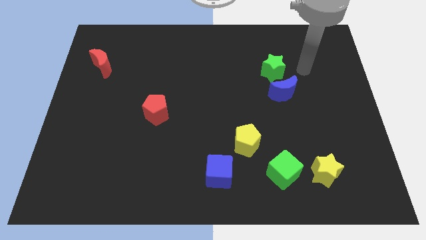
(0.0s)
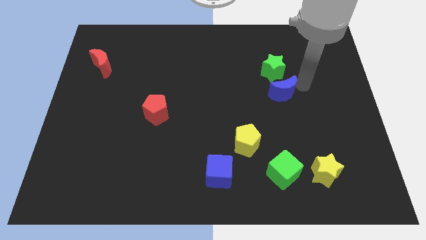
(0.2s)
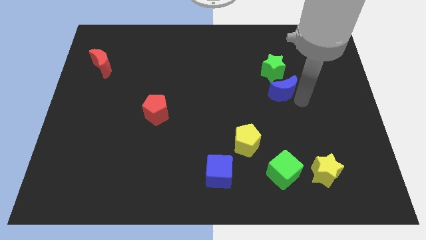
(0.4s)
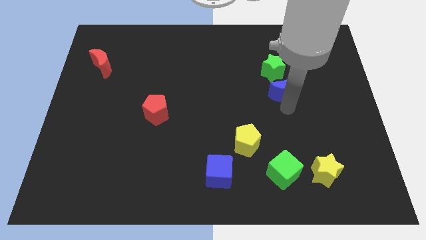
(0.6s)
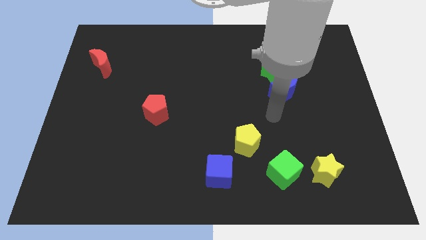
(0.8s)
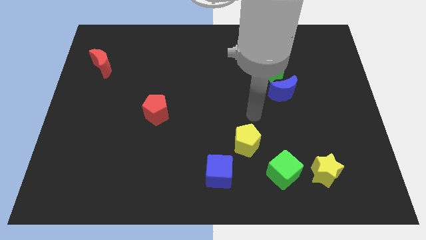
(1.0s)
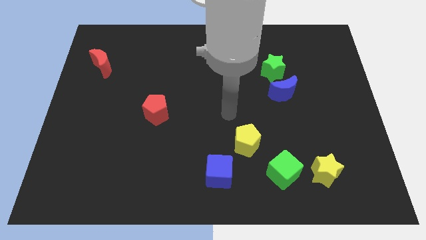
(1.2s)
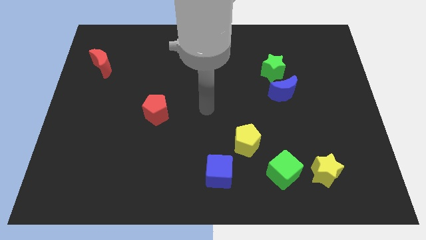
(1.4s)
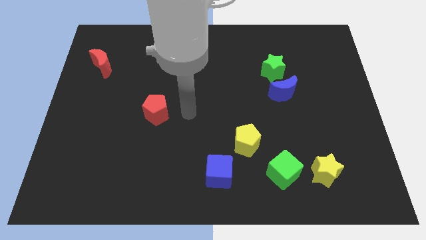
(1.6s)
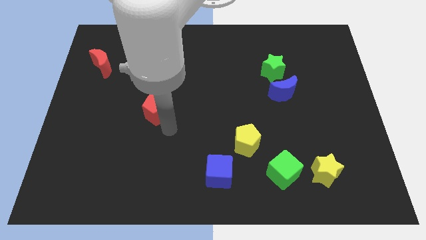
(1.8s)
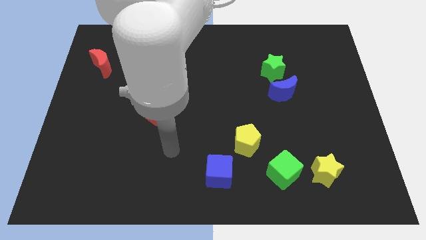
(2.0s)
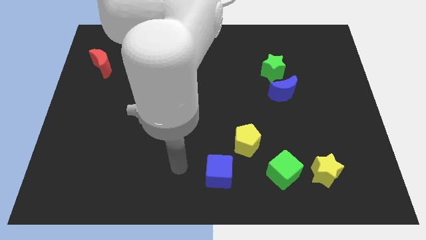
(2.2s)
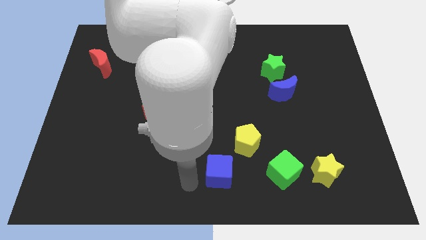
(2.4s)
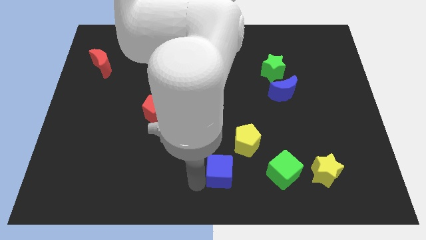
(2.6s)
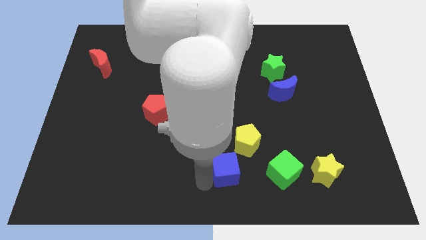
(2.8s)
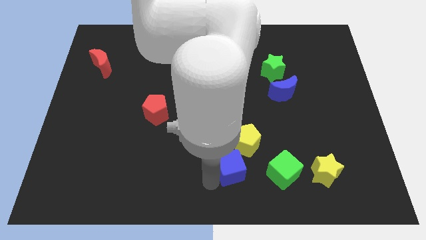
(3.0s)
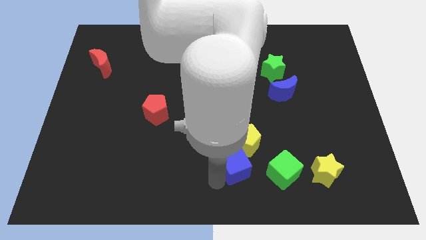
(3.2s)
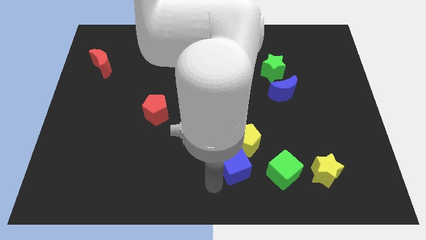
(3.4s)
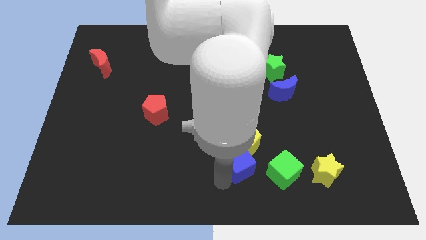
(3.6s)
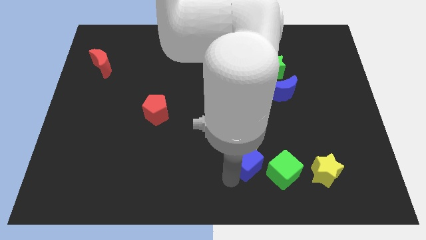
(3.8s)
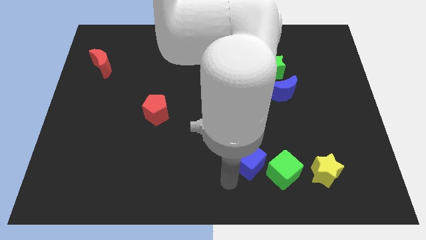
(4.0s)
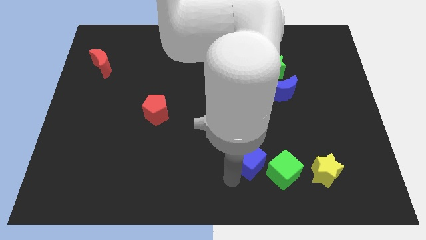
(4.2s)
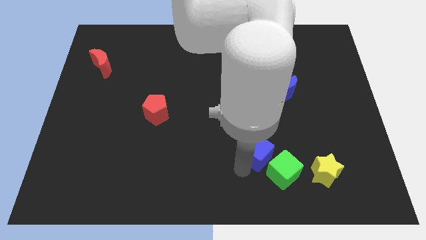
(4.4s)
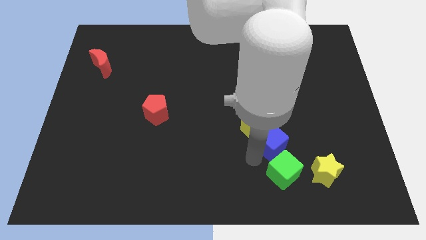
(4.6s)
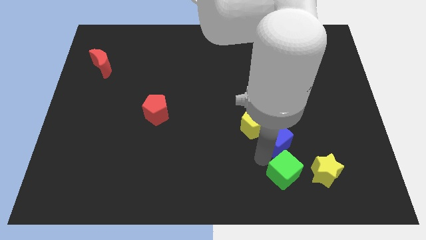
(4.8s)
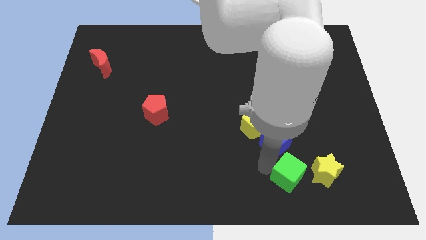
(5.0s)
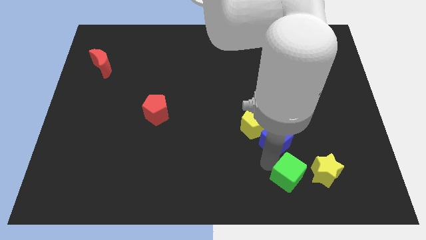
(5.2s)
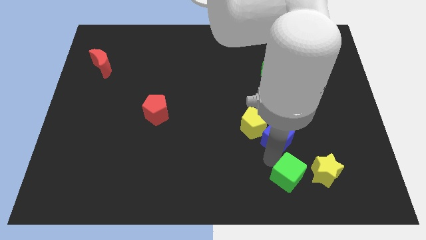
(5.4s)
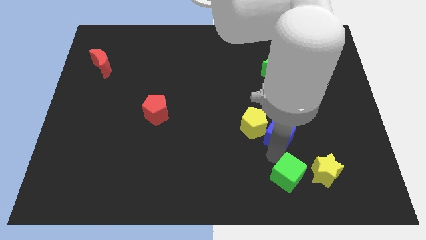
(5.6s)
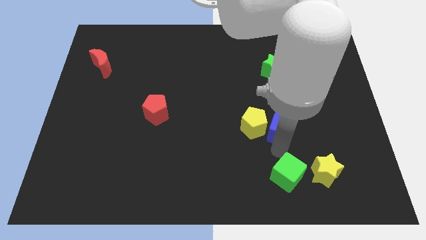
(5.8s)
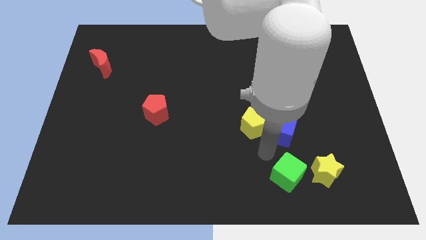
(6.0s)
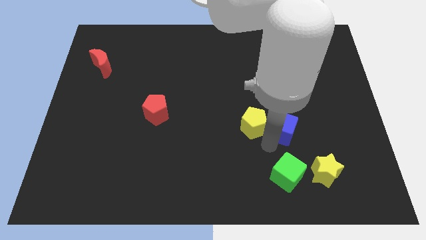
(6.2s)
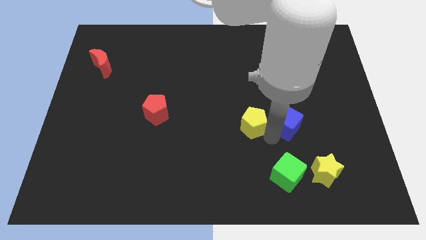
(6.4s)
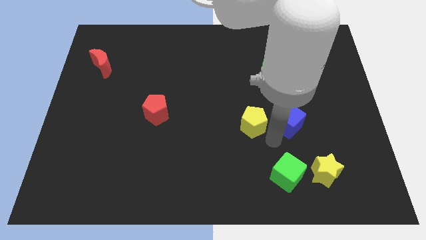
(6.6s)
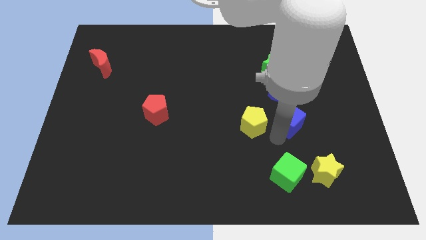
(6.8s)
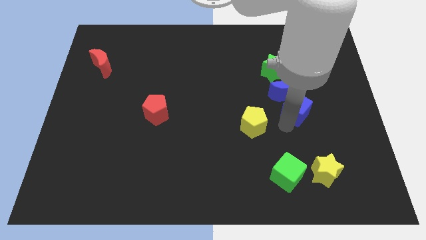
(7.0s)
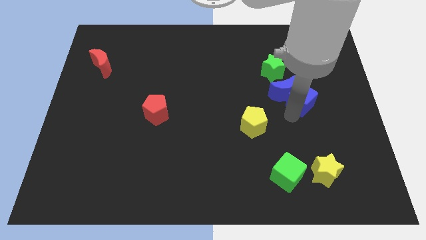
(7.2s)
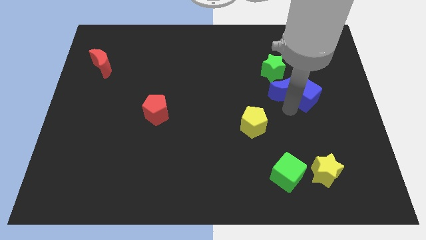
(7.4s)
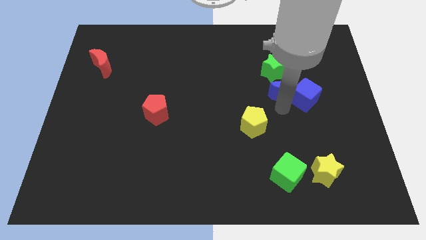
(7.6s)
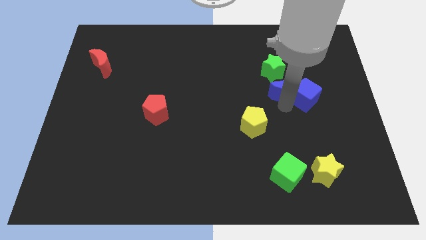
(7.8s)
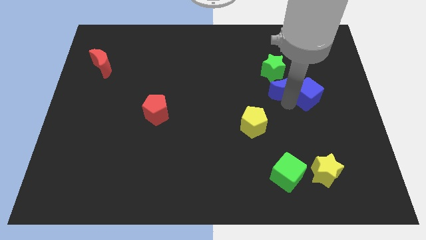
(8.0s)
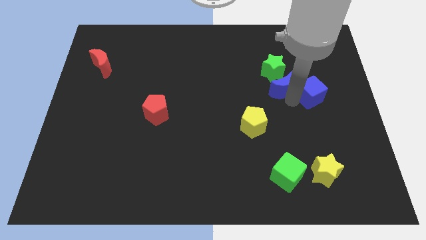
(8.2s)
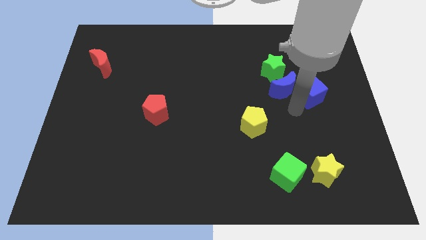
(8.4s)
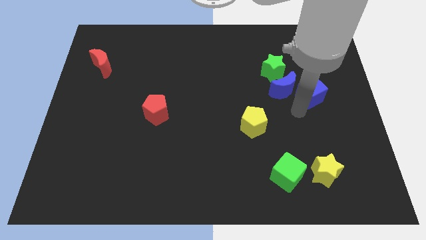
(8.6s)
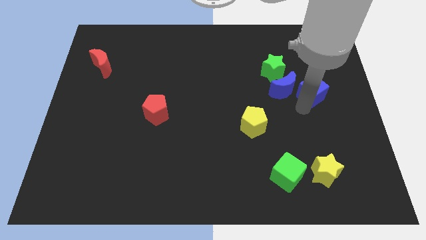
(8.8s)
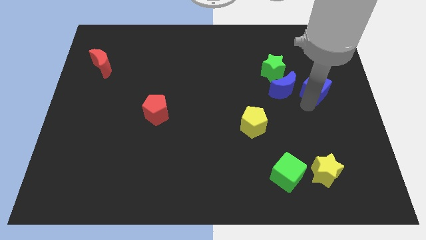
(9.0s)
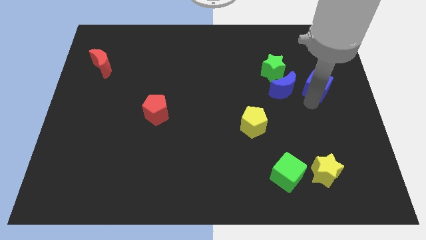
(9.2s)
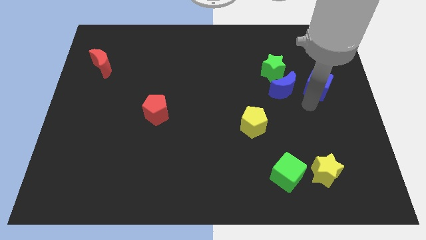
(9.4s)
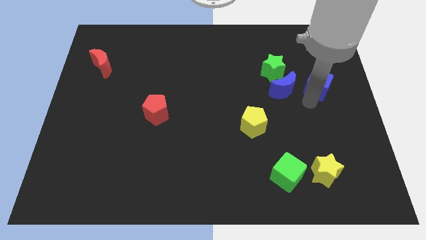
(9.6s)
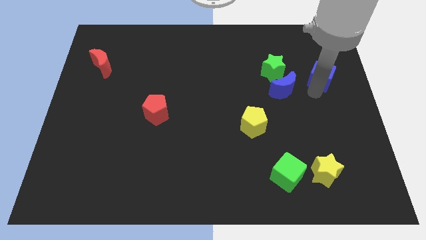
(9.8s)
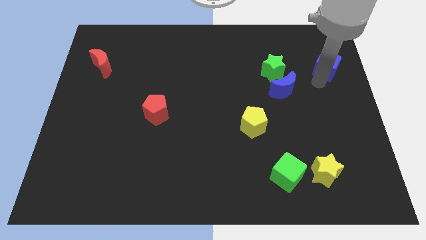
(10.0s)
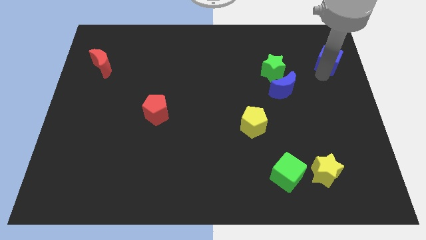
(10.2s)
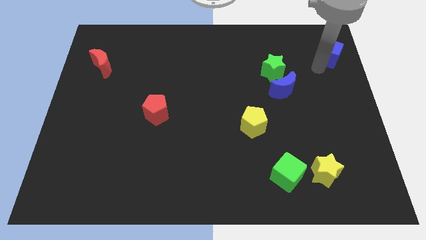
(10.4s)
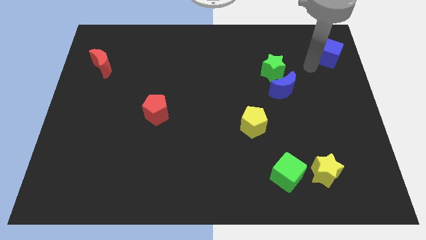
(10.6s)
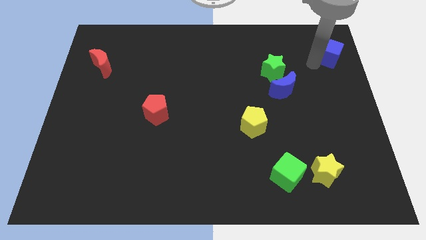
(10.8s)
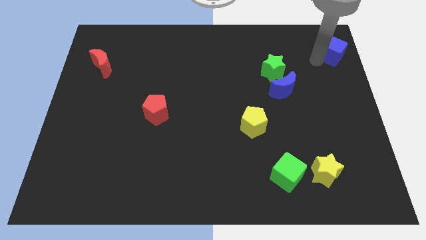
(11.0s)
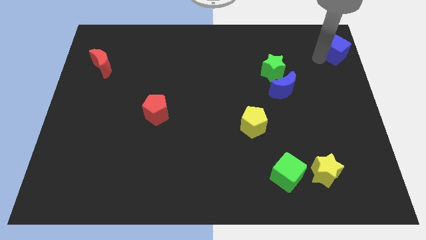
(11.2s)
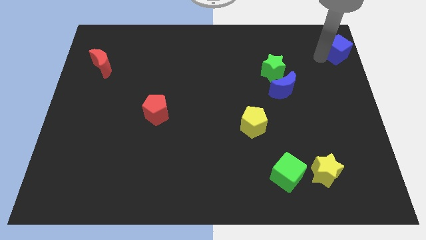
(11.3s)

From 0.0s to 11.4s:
slide the blue cube to the top right corner

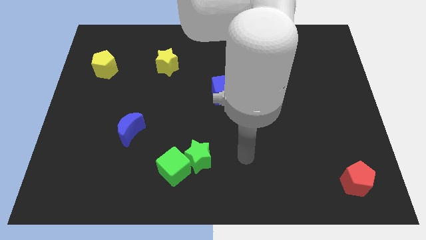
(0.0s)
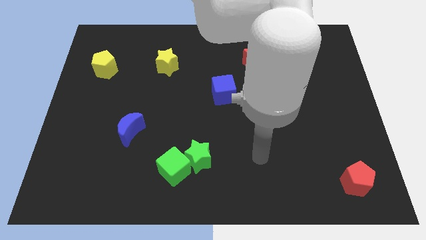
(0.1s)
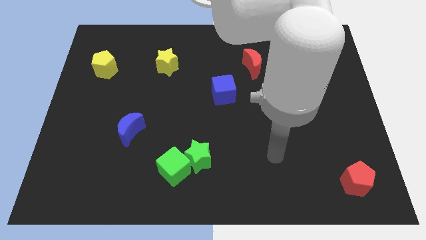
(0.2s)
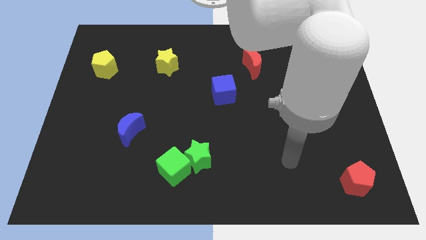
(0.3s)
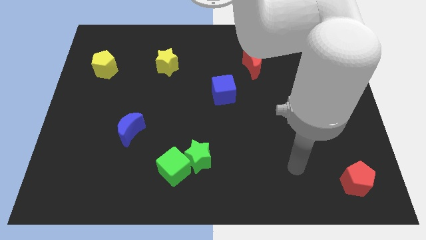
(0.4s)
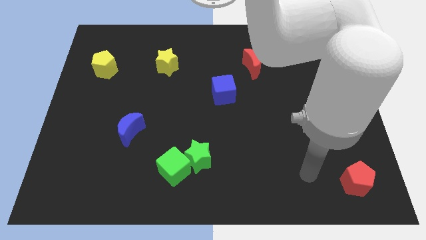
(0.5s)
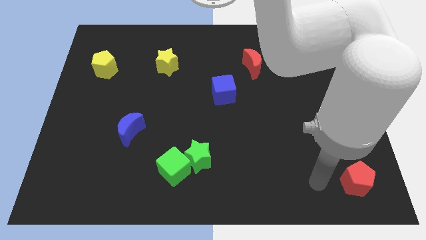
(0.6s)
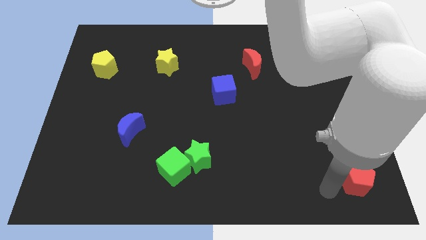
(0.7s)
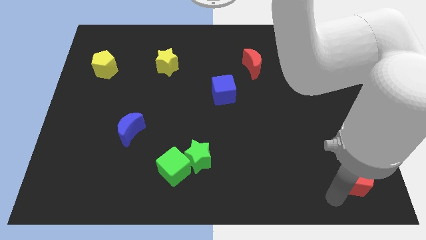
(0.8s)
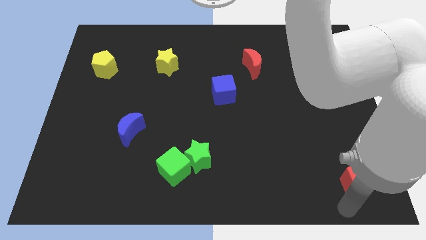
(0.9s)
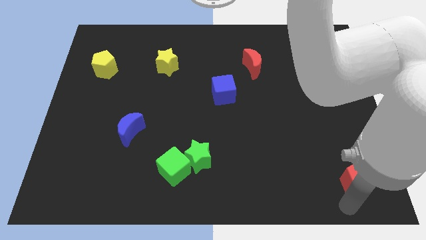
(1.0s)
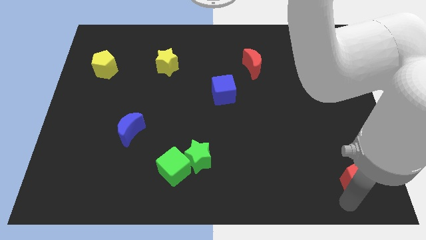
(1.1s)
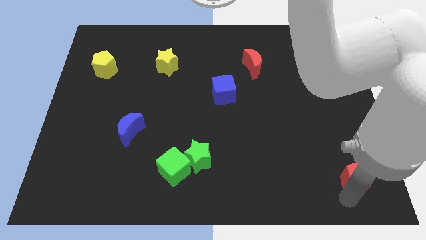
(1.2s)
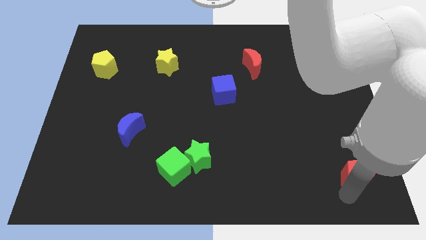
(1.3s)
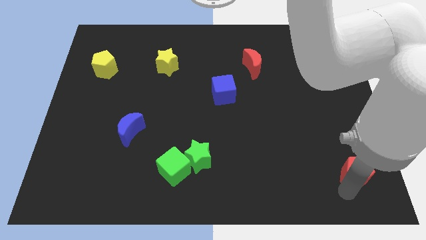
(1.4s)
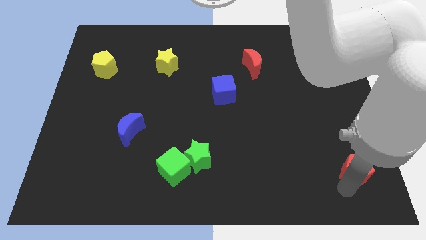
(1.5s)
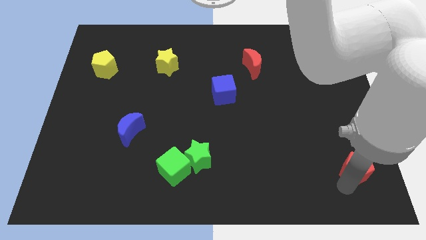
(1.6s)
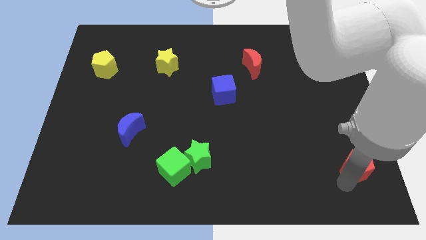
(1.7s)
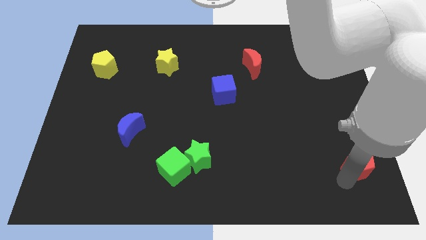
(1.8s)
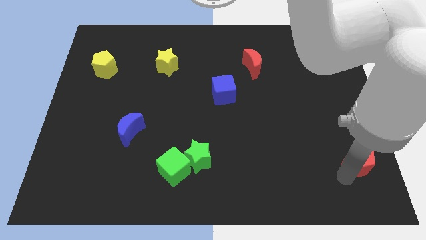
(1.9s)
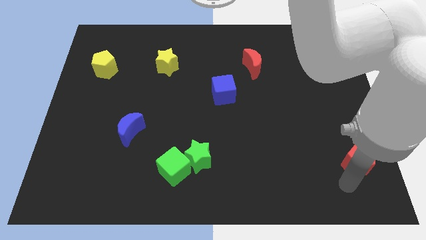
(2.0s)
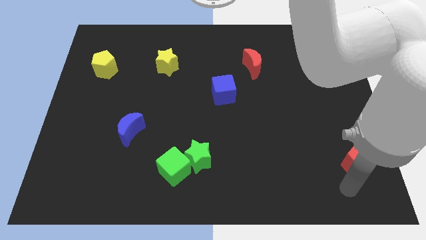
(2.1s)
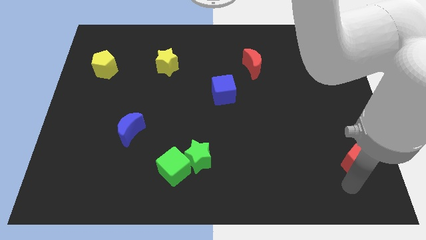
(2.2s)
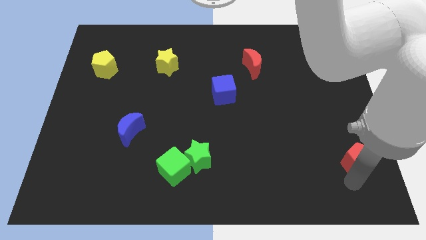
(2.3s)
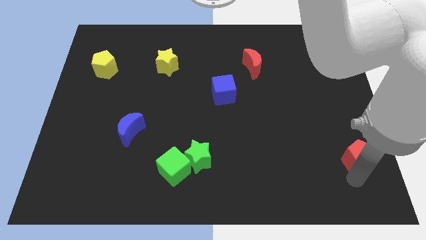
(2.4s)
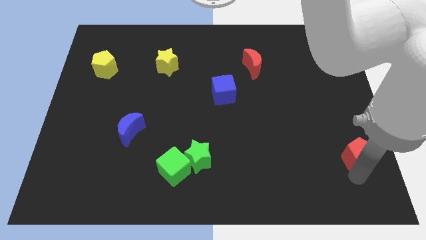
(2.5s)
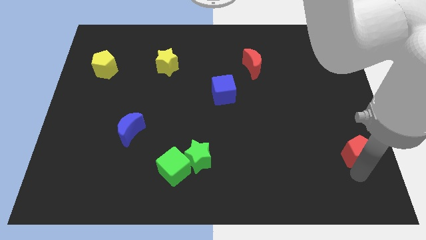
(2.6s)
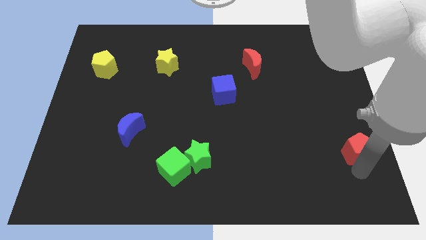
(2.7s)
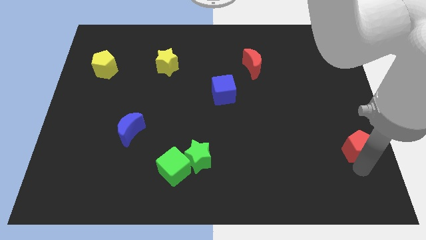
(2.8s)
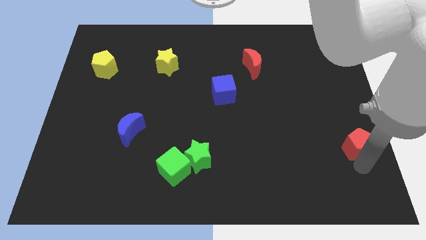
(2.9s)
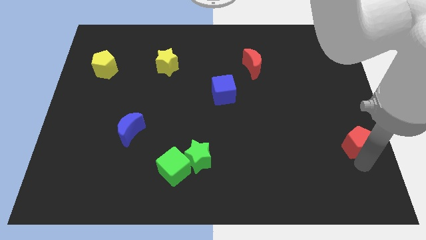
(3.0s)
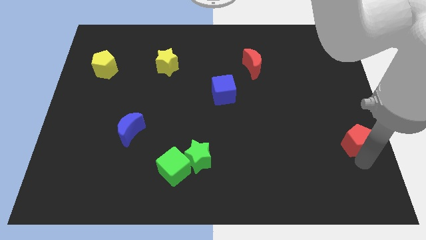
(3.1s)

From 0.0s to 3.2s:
move the red pentagon to the right side
